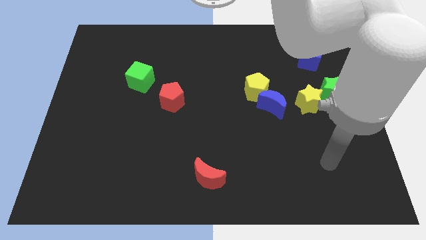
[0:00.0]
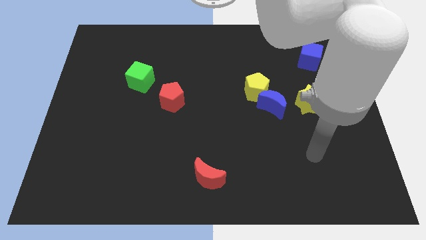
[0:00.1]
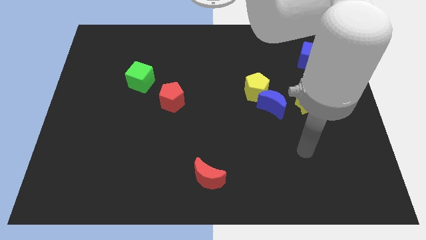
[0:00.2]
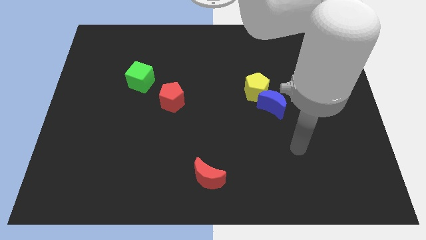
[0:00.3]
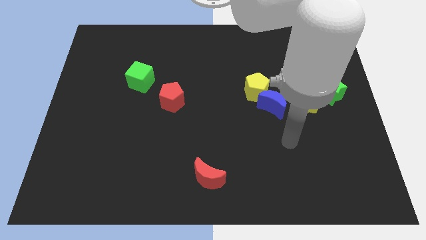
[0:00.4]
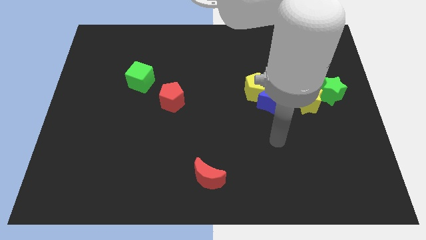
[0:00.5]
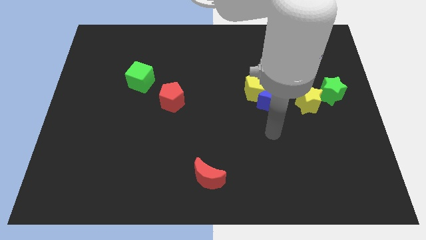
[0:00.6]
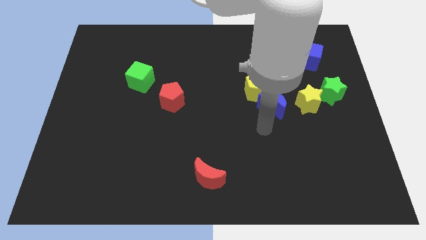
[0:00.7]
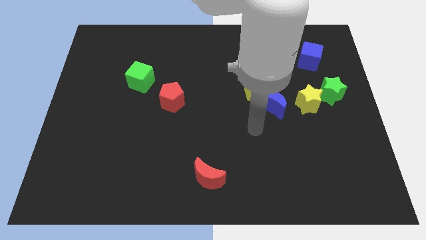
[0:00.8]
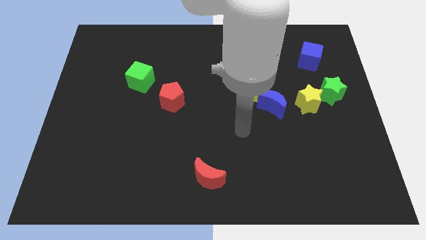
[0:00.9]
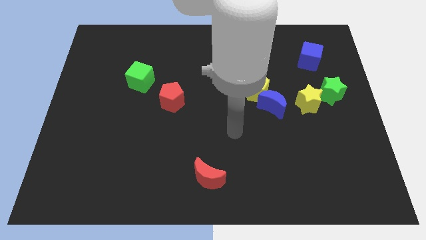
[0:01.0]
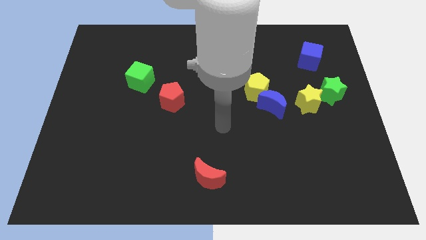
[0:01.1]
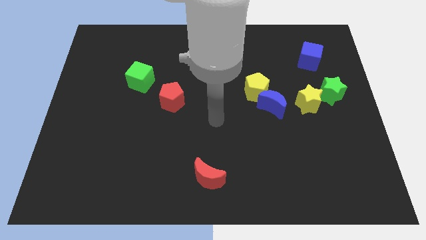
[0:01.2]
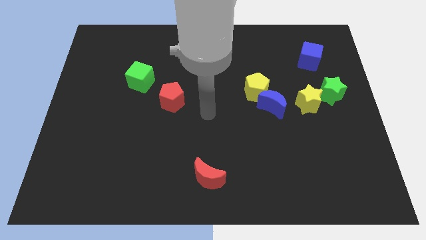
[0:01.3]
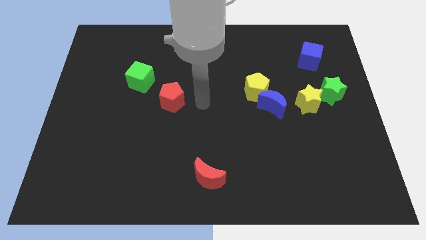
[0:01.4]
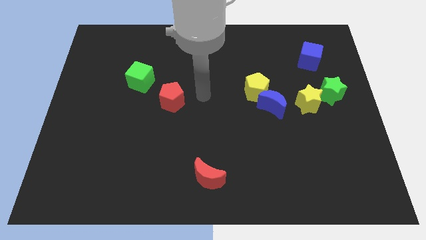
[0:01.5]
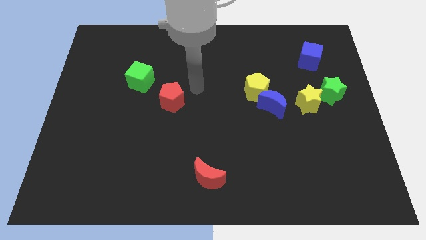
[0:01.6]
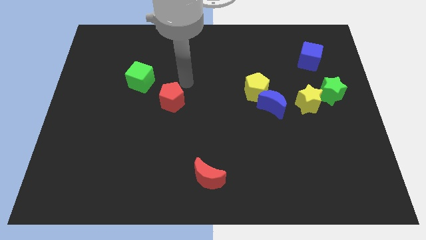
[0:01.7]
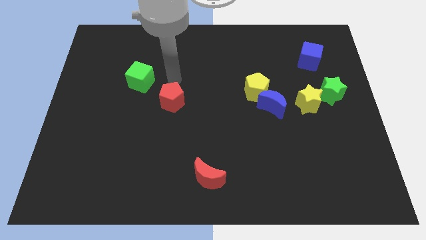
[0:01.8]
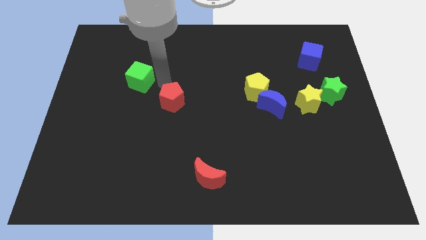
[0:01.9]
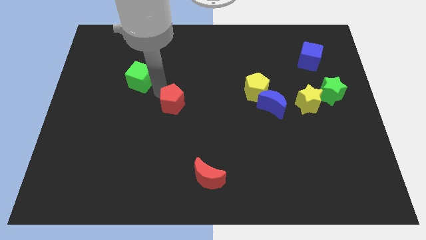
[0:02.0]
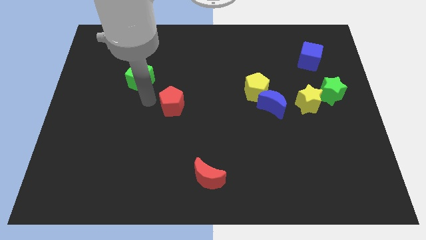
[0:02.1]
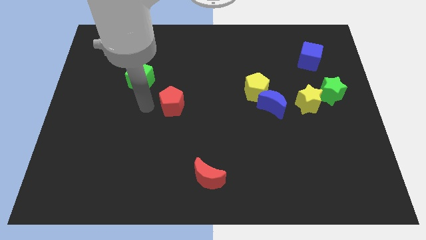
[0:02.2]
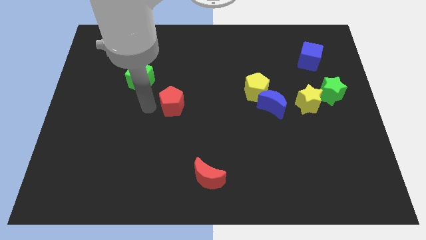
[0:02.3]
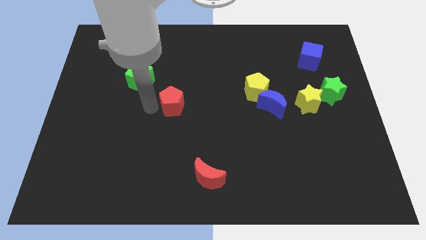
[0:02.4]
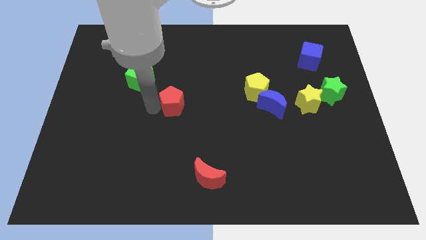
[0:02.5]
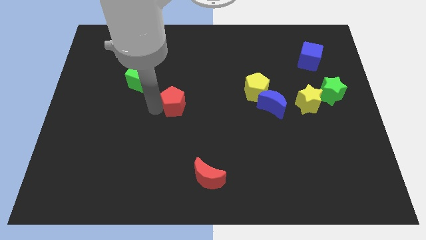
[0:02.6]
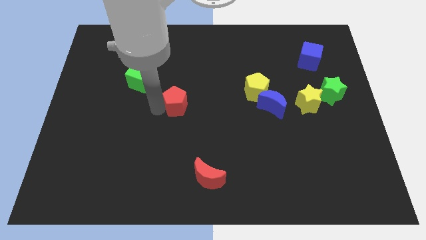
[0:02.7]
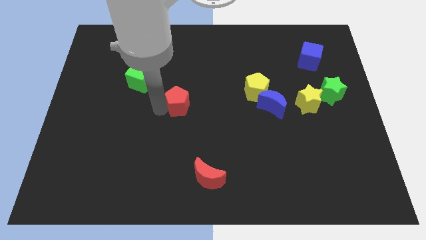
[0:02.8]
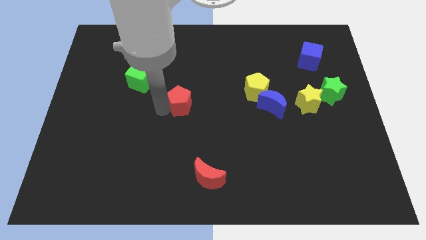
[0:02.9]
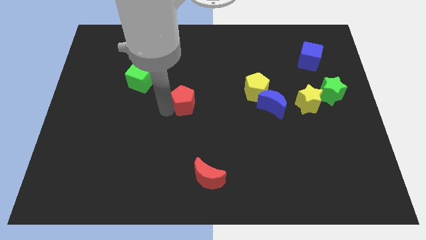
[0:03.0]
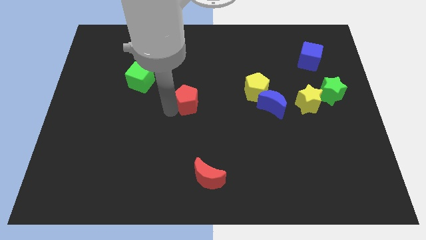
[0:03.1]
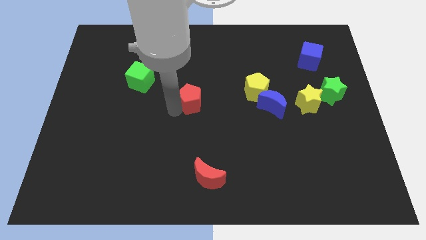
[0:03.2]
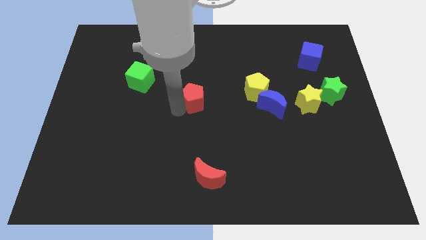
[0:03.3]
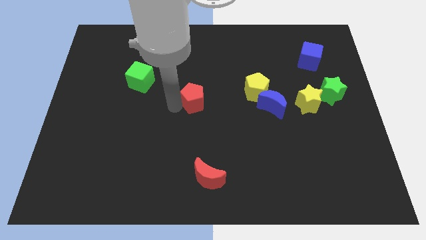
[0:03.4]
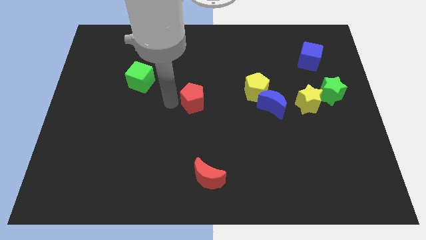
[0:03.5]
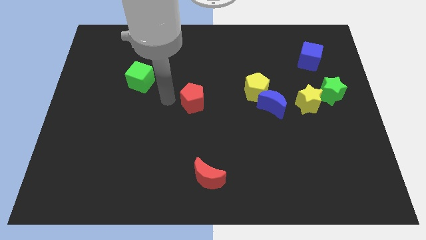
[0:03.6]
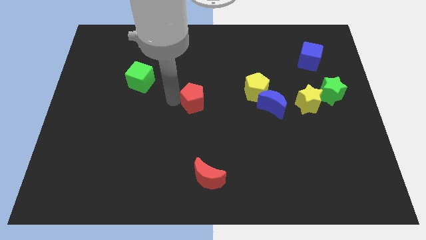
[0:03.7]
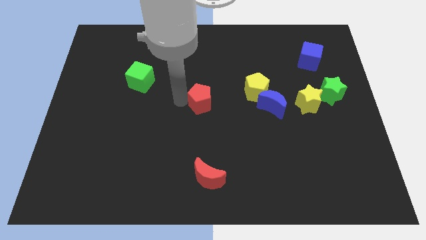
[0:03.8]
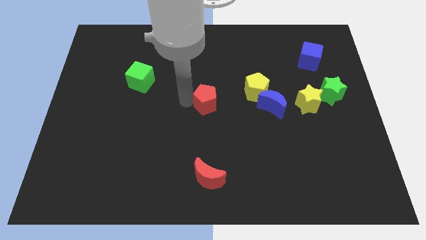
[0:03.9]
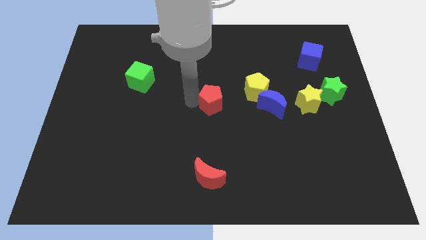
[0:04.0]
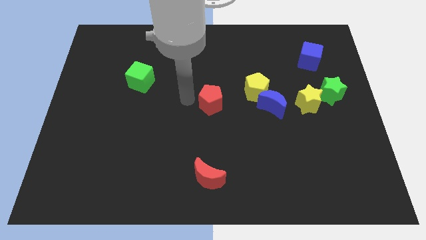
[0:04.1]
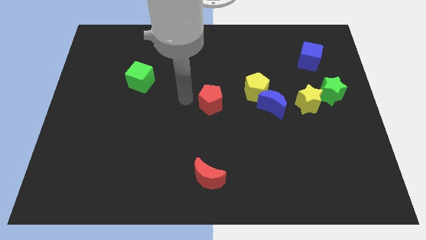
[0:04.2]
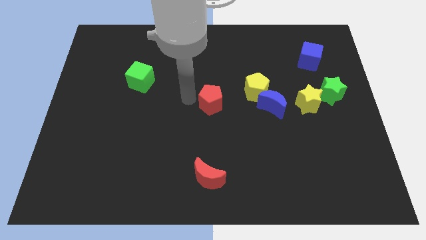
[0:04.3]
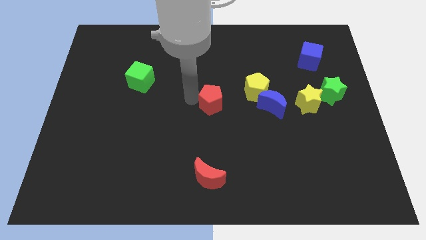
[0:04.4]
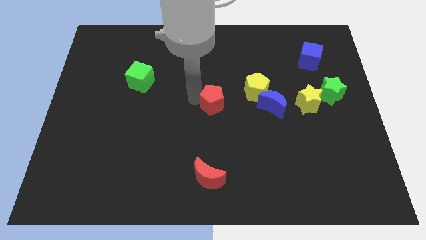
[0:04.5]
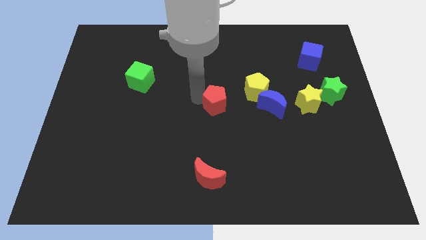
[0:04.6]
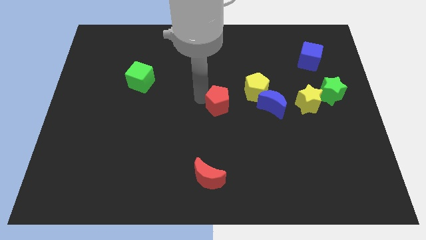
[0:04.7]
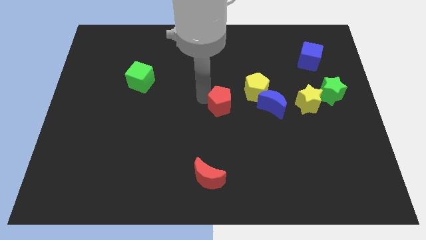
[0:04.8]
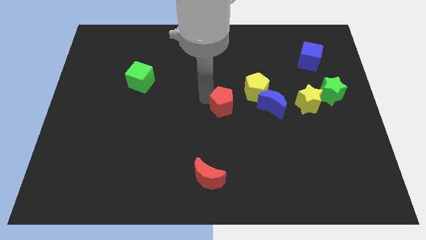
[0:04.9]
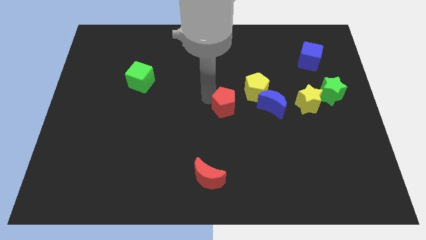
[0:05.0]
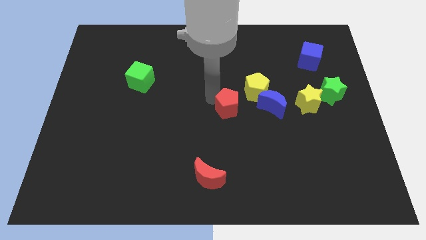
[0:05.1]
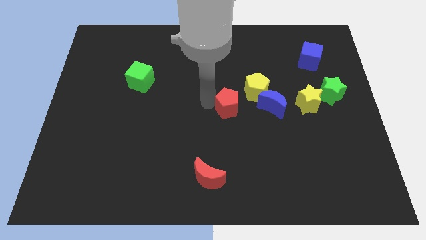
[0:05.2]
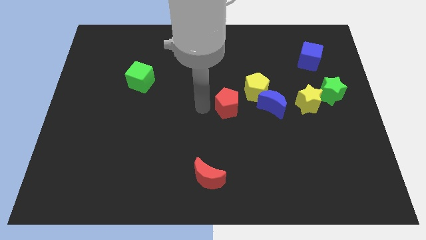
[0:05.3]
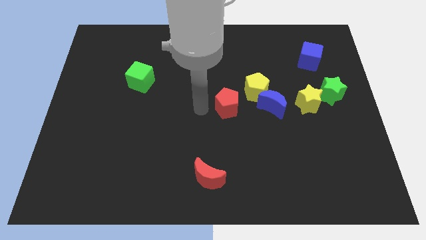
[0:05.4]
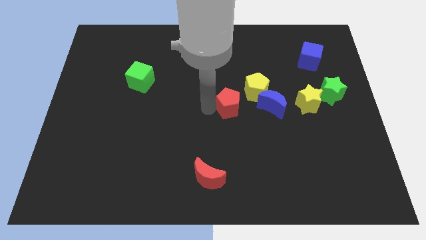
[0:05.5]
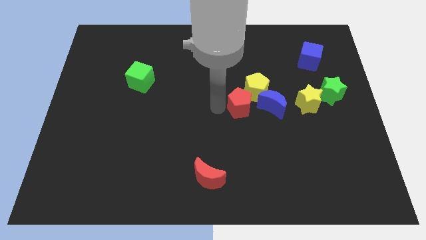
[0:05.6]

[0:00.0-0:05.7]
slide the red pentagon to the left side of the yellow star

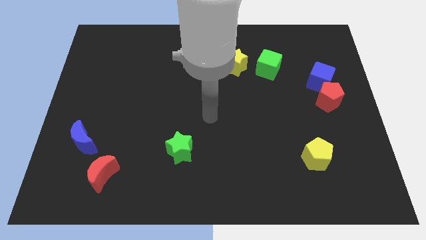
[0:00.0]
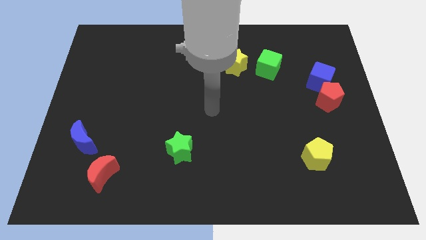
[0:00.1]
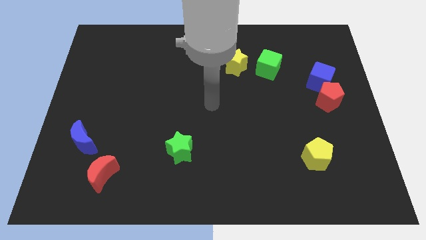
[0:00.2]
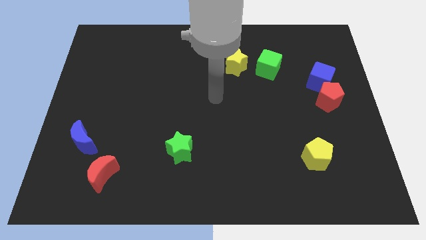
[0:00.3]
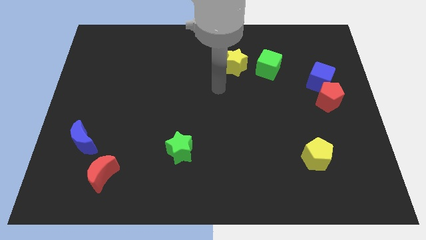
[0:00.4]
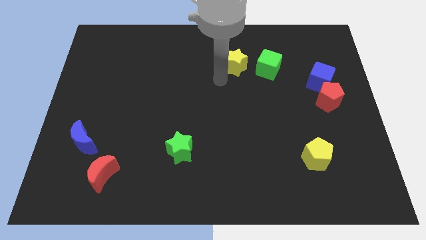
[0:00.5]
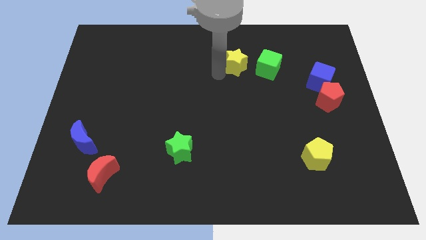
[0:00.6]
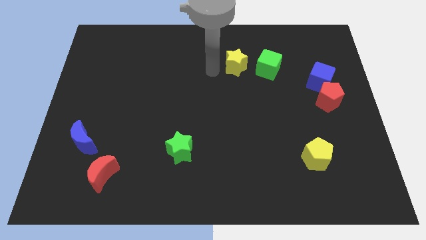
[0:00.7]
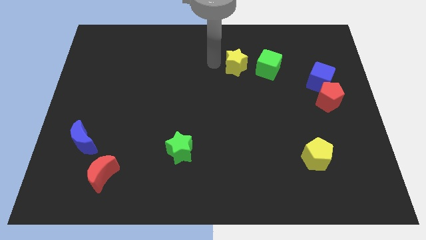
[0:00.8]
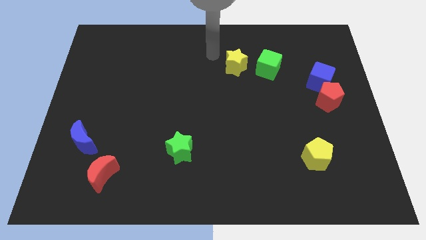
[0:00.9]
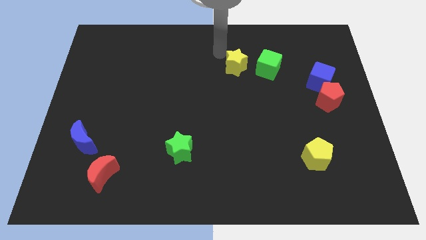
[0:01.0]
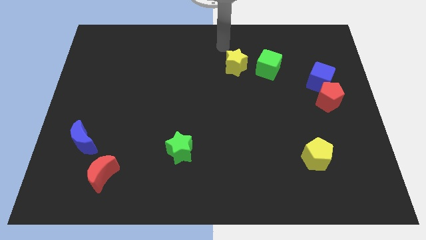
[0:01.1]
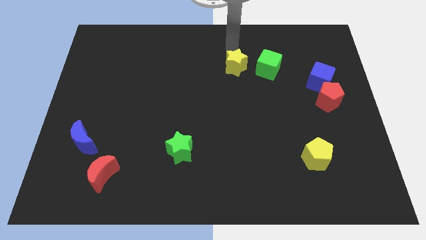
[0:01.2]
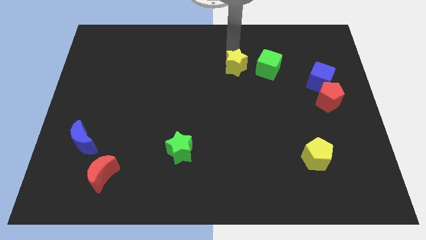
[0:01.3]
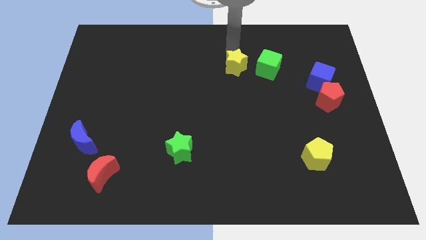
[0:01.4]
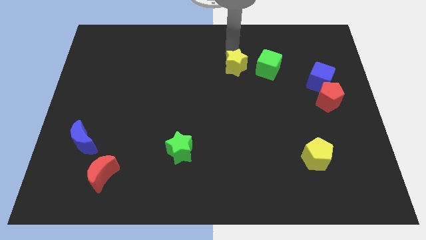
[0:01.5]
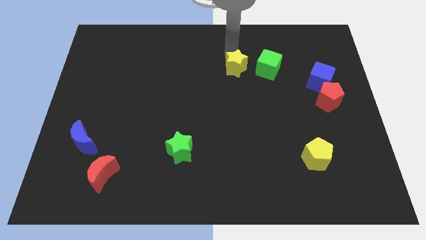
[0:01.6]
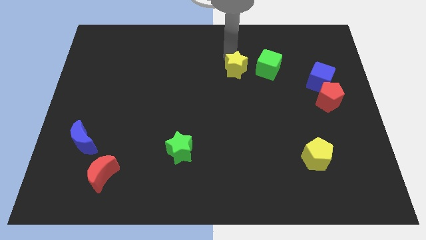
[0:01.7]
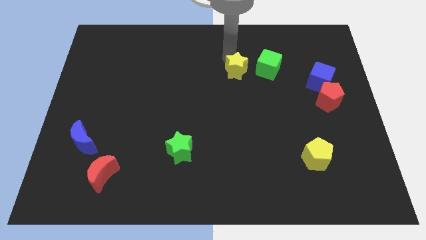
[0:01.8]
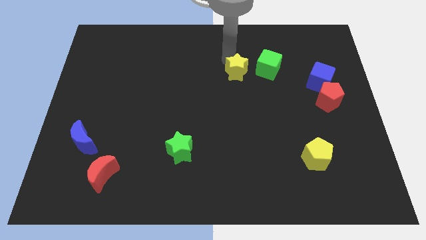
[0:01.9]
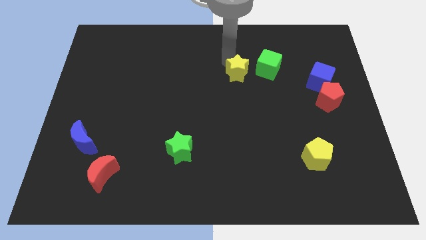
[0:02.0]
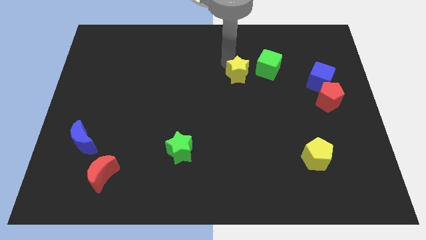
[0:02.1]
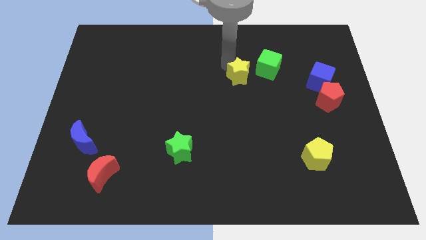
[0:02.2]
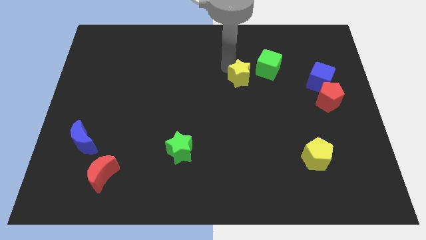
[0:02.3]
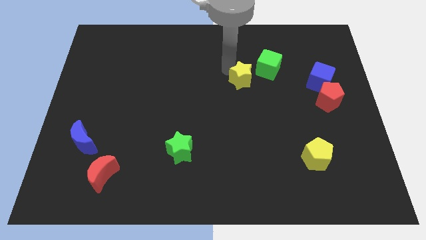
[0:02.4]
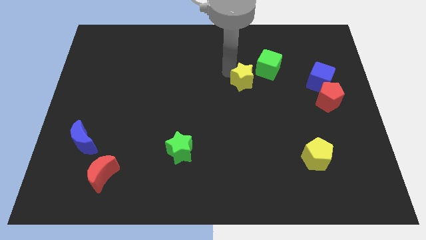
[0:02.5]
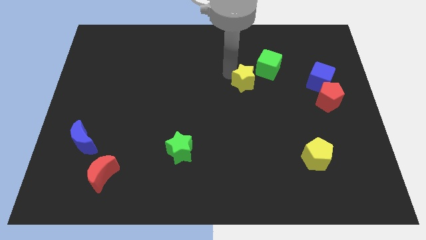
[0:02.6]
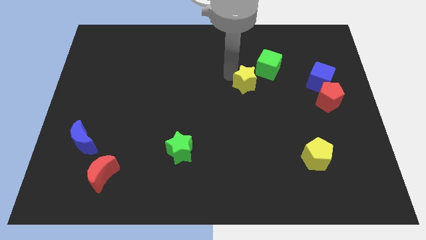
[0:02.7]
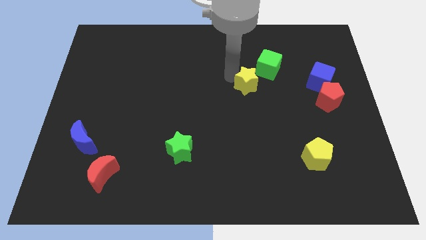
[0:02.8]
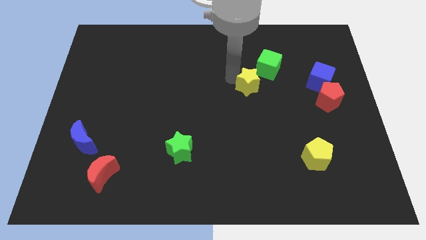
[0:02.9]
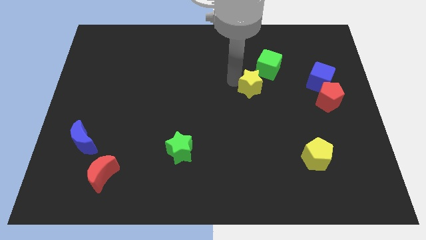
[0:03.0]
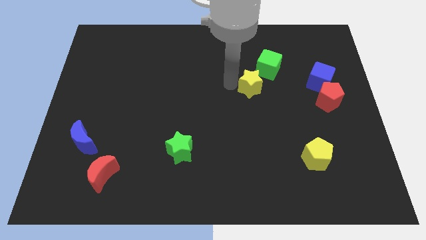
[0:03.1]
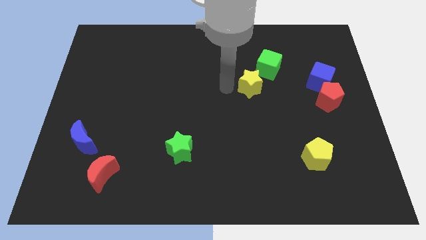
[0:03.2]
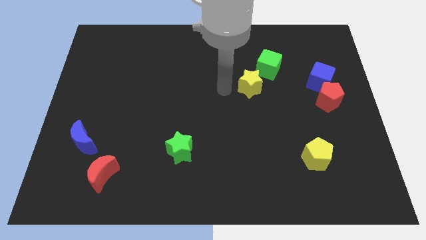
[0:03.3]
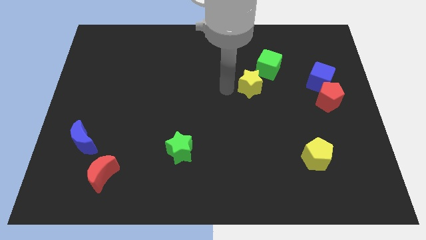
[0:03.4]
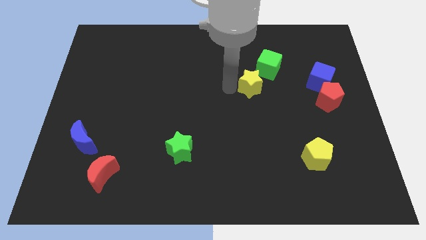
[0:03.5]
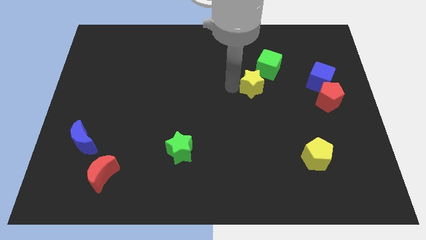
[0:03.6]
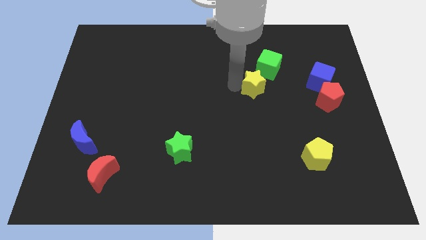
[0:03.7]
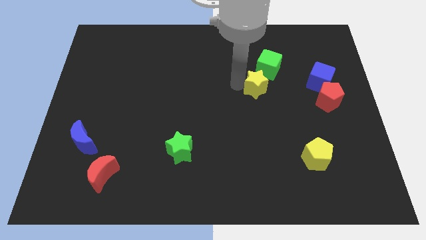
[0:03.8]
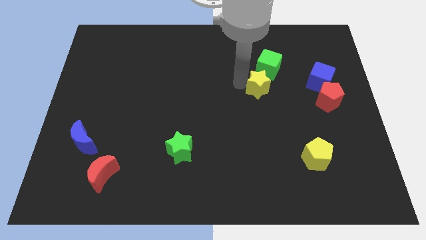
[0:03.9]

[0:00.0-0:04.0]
slide the yellow star just left of the blue cube
